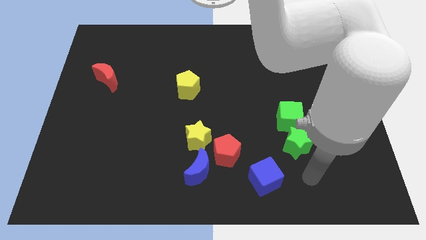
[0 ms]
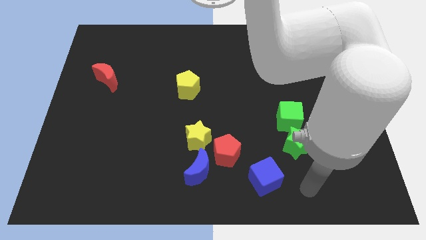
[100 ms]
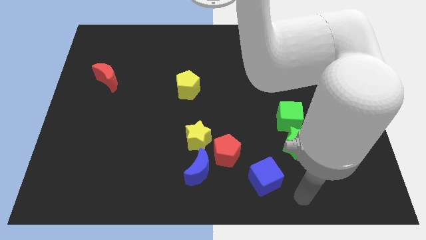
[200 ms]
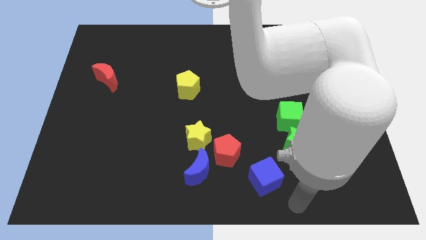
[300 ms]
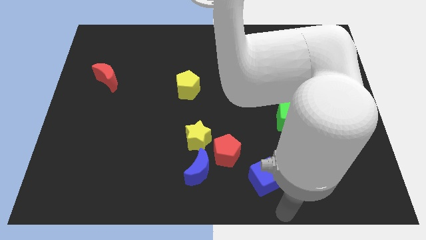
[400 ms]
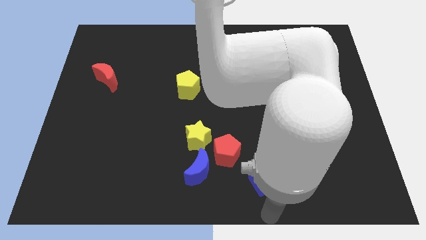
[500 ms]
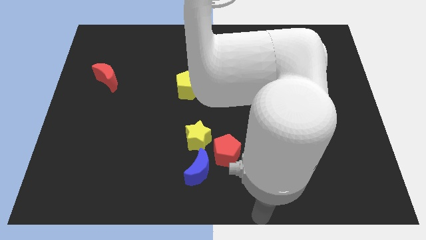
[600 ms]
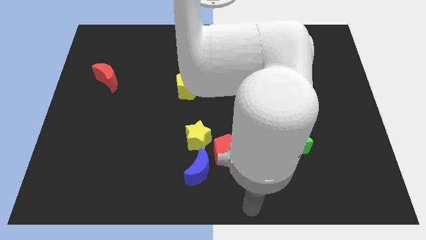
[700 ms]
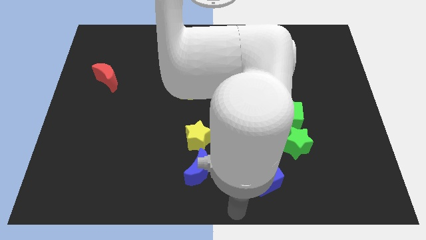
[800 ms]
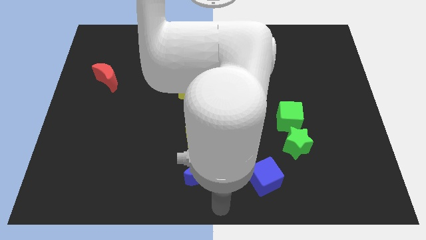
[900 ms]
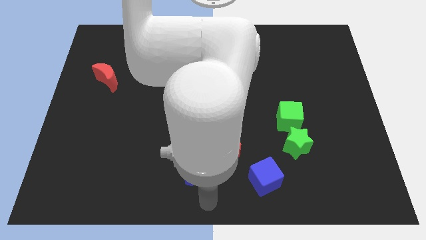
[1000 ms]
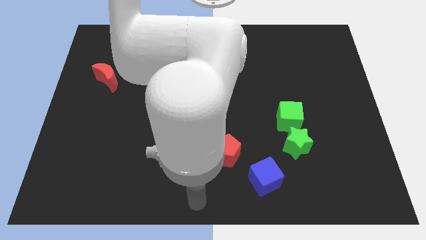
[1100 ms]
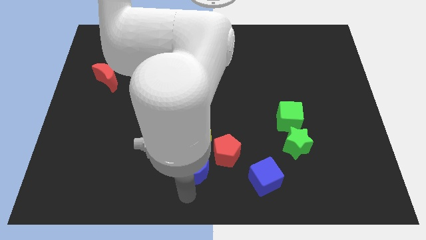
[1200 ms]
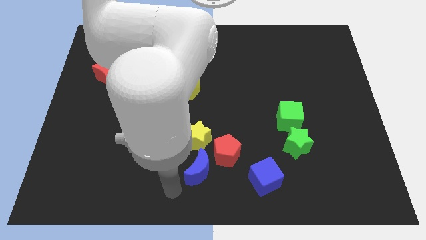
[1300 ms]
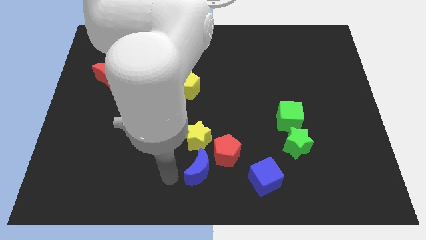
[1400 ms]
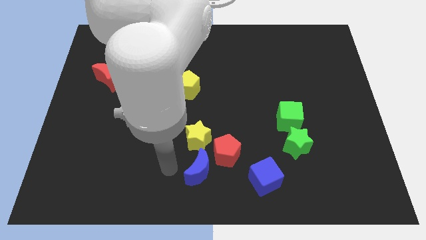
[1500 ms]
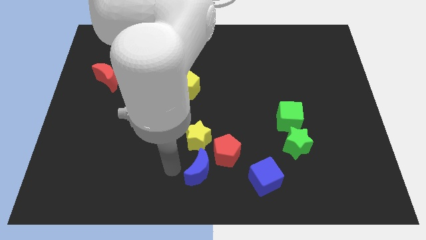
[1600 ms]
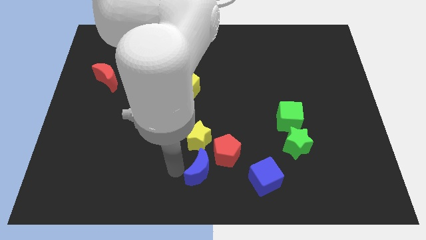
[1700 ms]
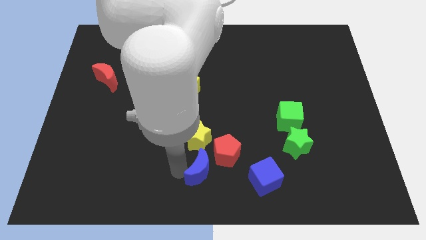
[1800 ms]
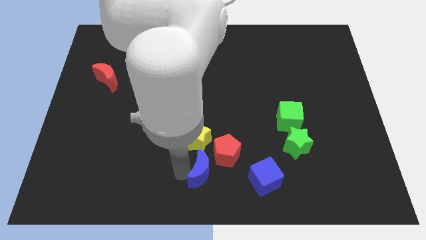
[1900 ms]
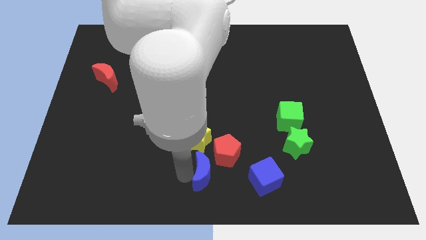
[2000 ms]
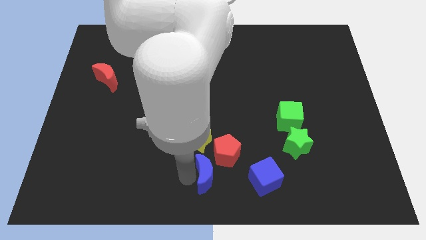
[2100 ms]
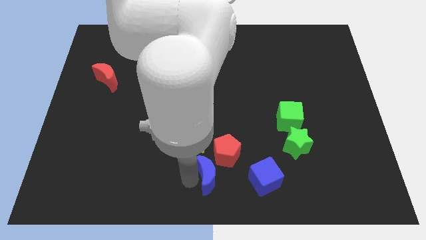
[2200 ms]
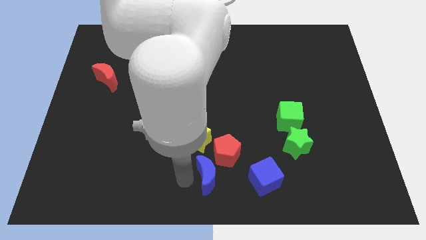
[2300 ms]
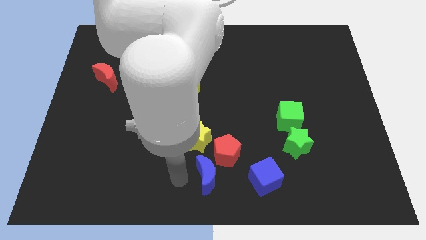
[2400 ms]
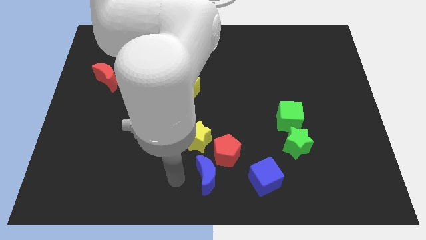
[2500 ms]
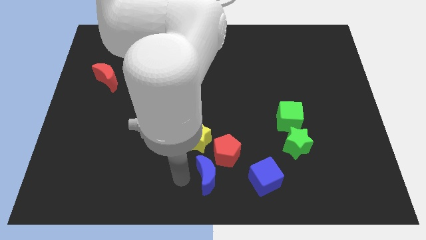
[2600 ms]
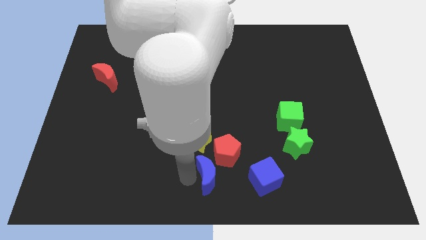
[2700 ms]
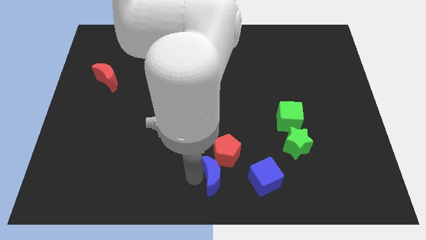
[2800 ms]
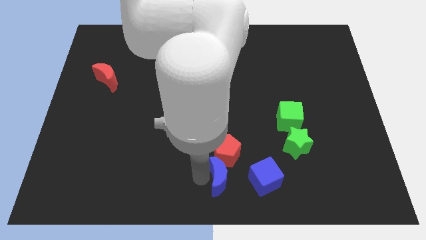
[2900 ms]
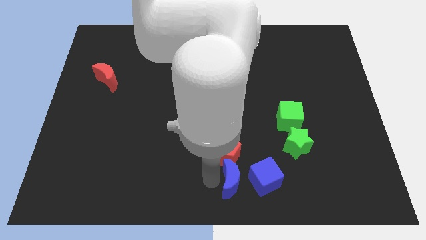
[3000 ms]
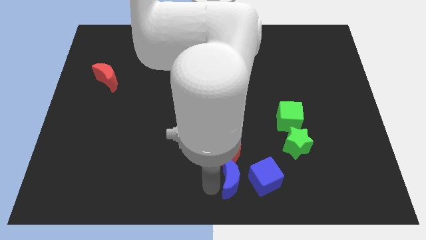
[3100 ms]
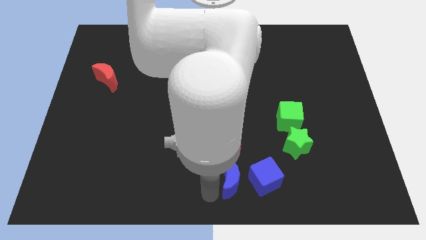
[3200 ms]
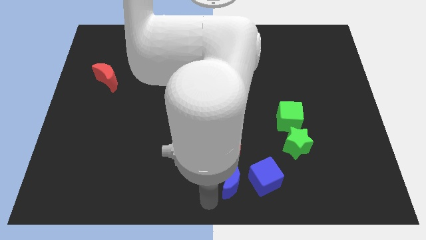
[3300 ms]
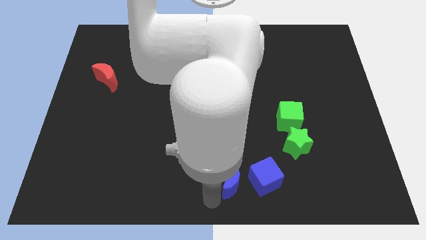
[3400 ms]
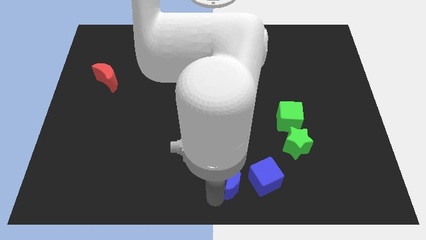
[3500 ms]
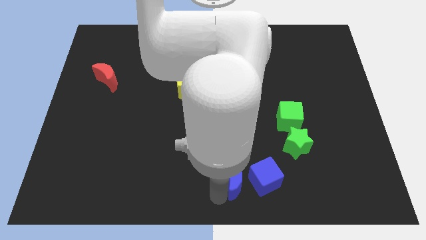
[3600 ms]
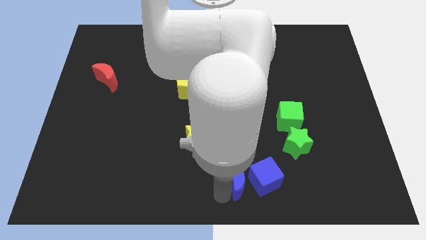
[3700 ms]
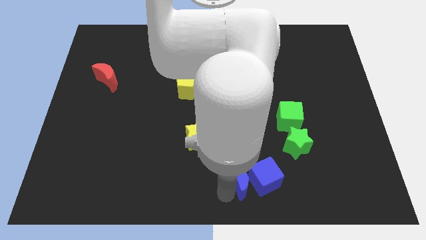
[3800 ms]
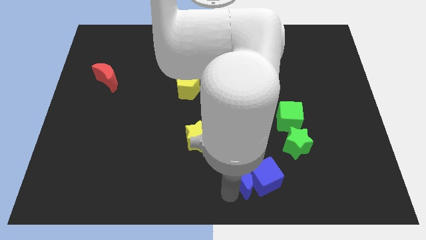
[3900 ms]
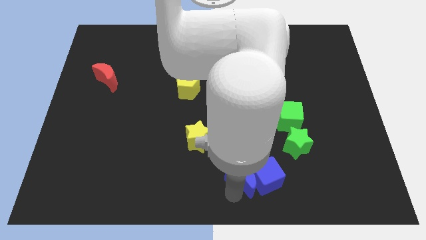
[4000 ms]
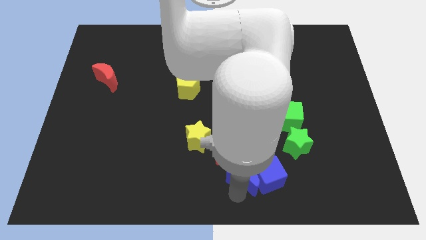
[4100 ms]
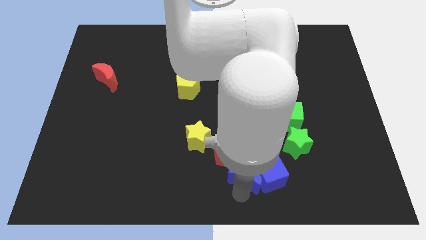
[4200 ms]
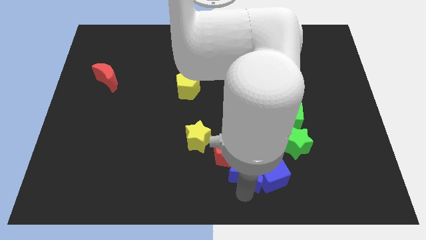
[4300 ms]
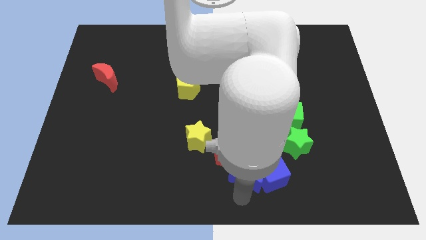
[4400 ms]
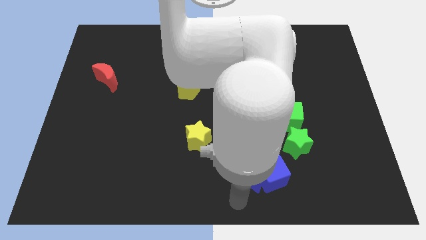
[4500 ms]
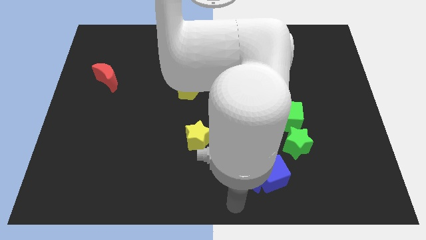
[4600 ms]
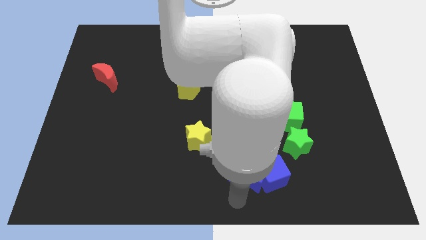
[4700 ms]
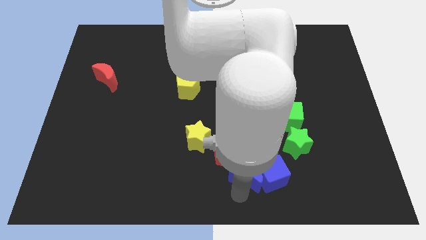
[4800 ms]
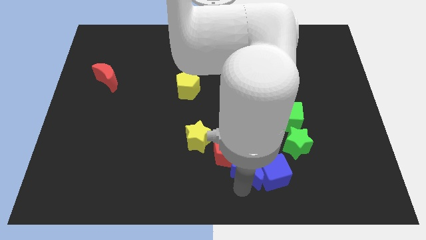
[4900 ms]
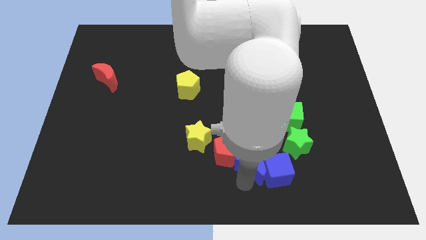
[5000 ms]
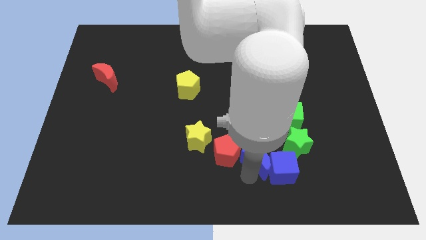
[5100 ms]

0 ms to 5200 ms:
push the blue moon up and to the right diagonally a bit

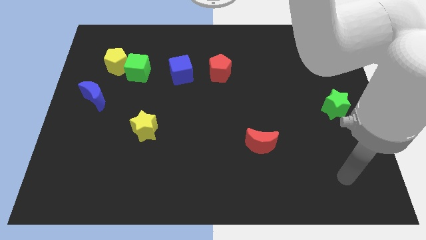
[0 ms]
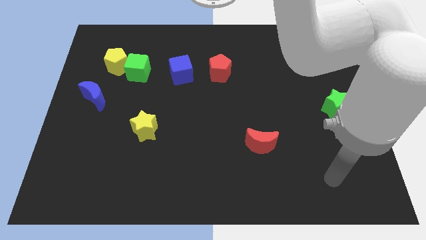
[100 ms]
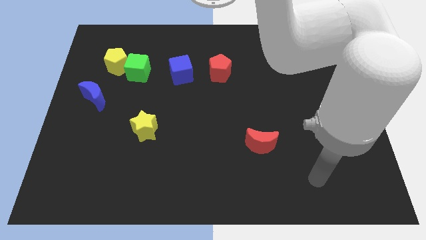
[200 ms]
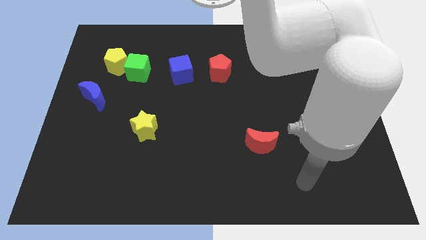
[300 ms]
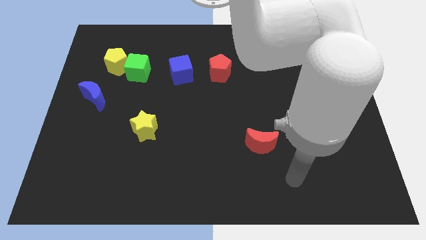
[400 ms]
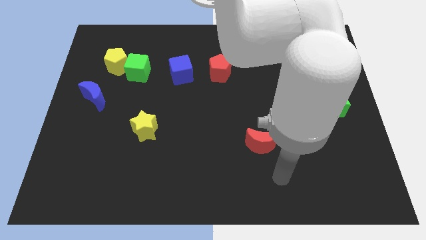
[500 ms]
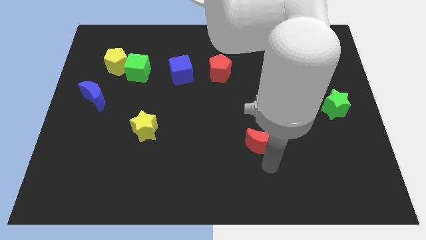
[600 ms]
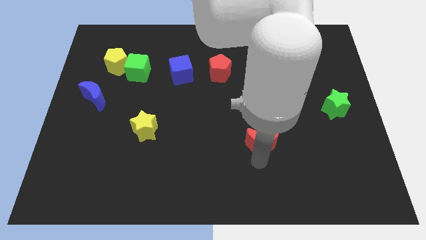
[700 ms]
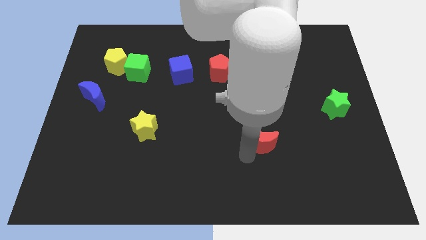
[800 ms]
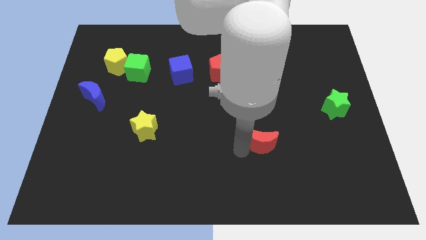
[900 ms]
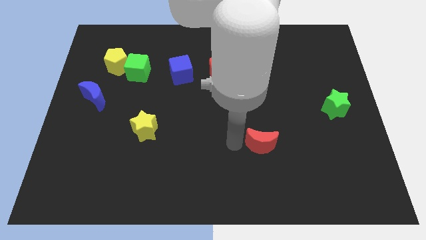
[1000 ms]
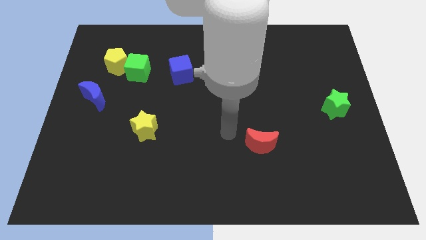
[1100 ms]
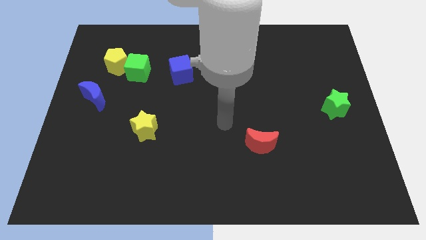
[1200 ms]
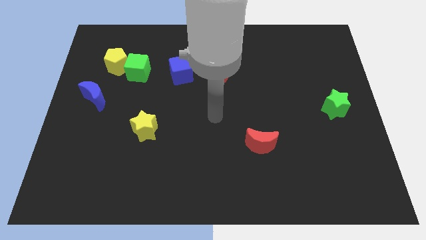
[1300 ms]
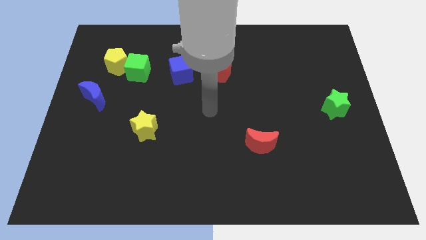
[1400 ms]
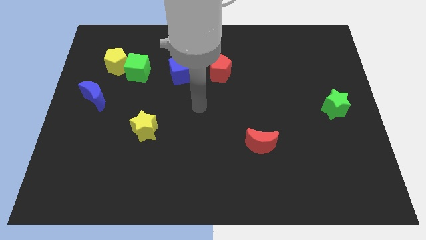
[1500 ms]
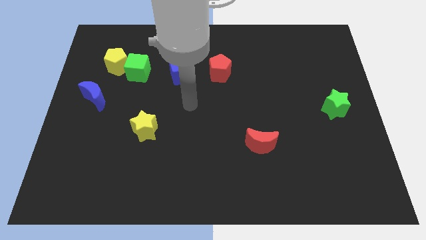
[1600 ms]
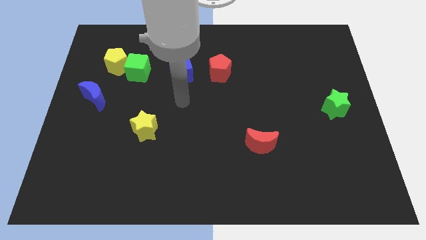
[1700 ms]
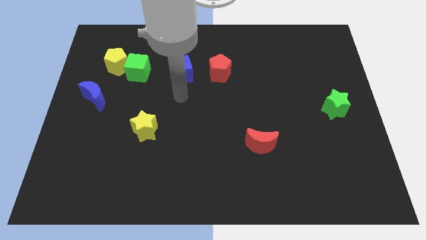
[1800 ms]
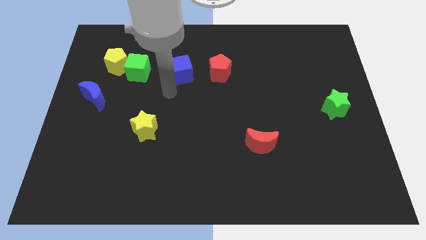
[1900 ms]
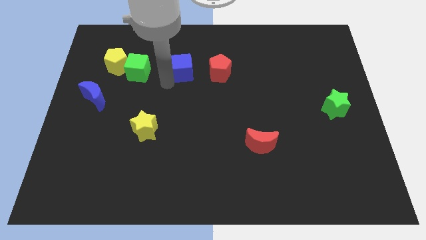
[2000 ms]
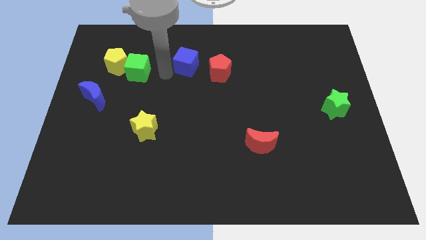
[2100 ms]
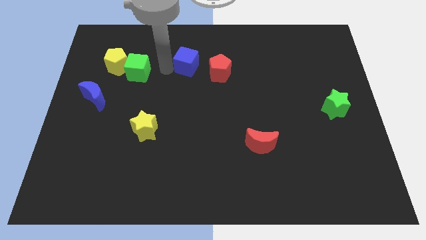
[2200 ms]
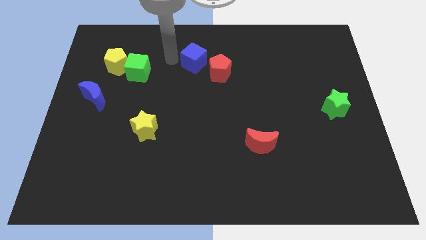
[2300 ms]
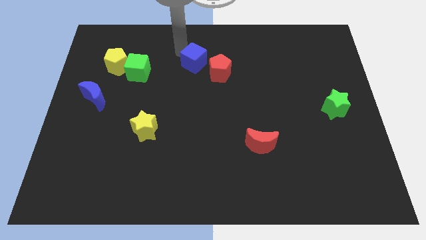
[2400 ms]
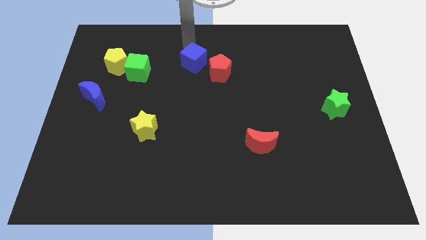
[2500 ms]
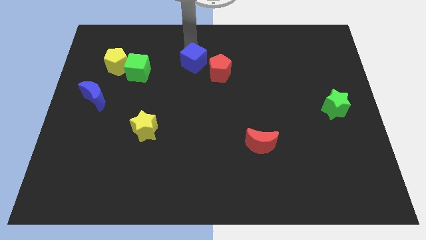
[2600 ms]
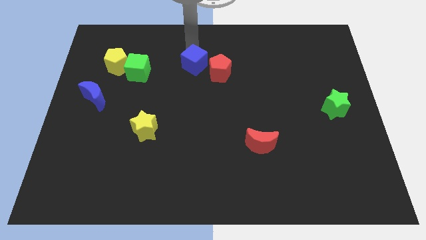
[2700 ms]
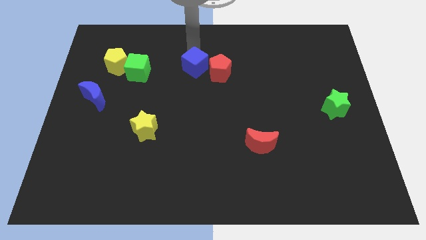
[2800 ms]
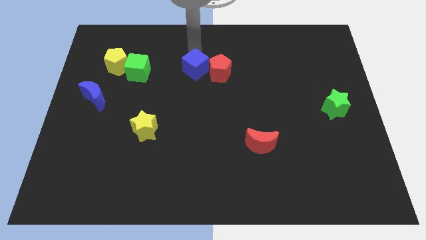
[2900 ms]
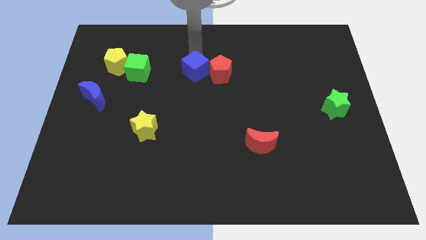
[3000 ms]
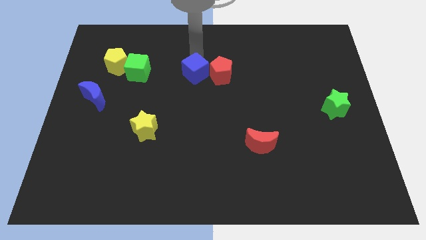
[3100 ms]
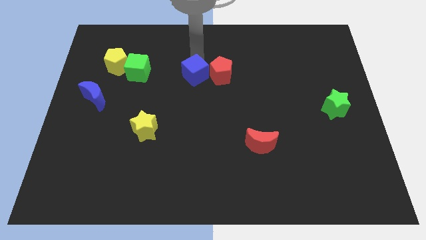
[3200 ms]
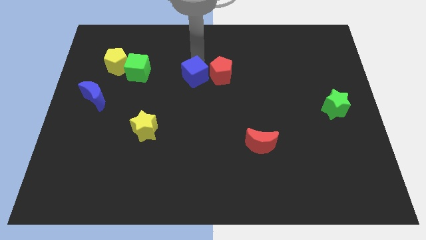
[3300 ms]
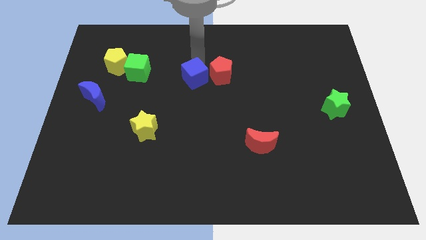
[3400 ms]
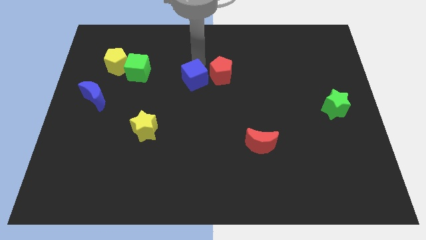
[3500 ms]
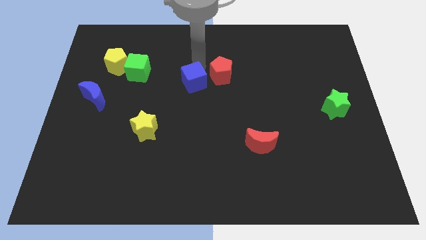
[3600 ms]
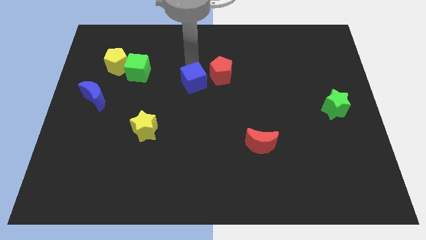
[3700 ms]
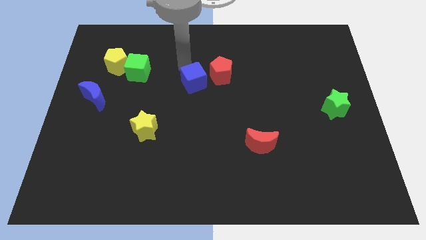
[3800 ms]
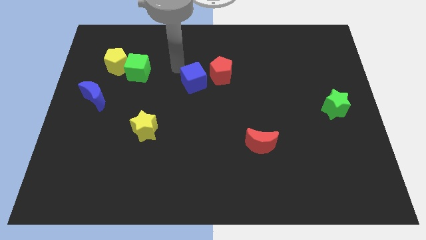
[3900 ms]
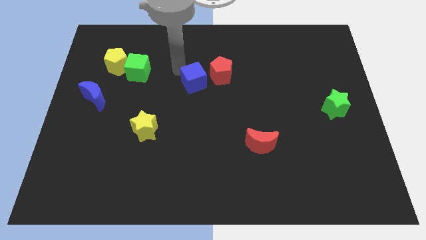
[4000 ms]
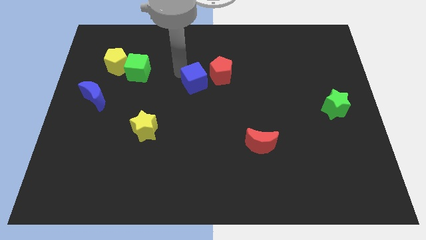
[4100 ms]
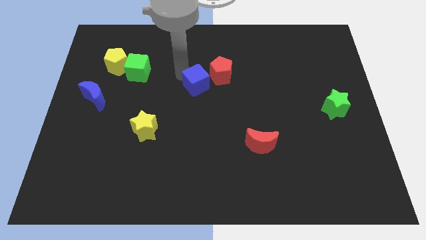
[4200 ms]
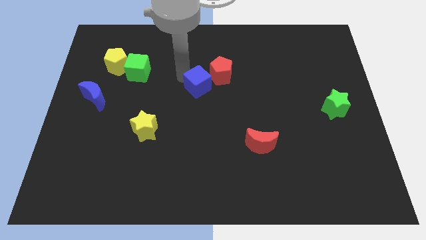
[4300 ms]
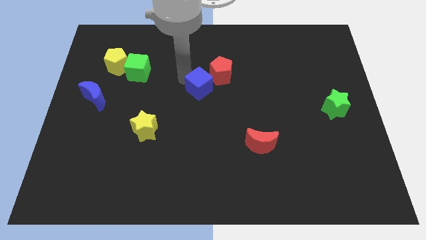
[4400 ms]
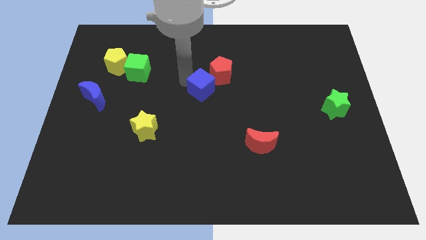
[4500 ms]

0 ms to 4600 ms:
push the blue cube down and right diagonally a little
